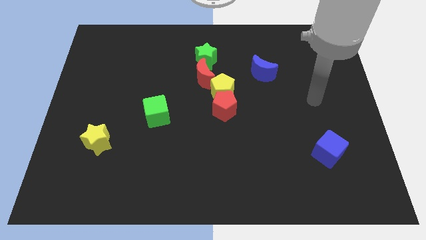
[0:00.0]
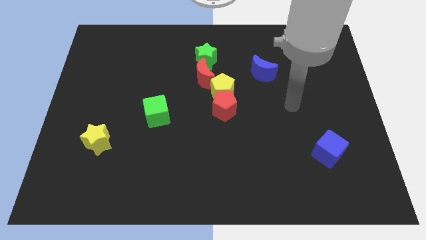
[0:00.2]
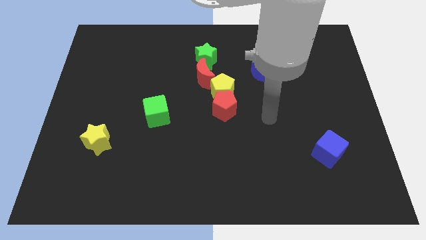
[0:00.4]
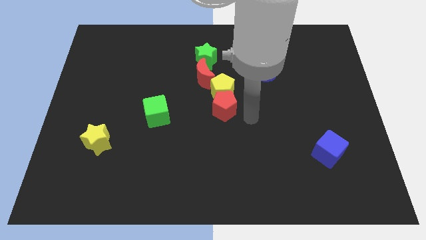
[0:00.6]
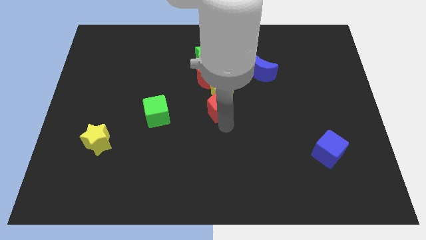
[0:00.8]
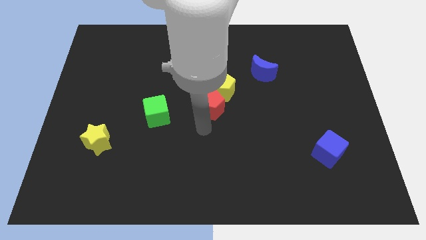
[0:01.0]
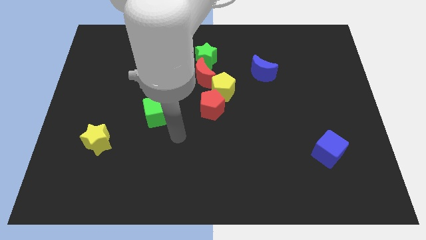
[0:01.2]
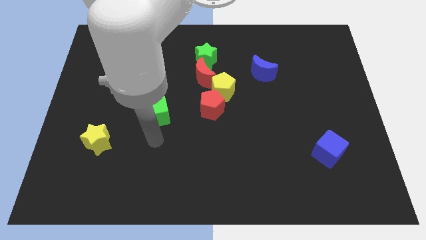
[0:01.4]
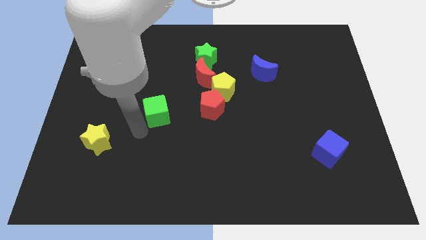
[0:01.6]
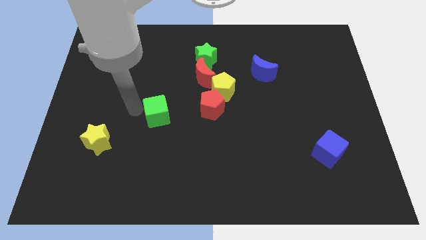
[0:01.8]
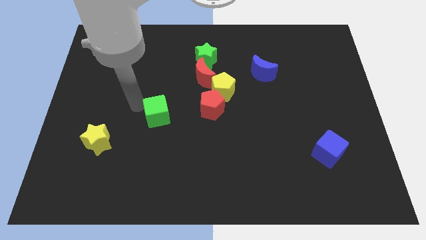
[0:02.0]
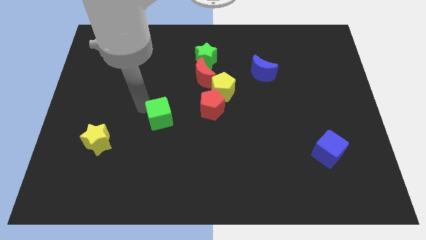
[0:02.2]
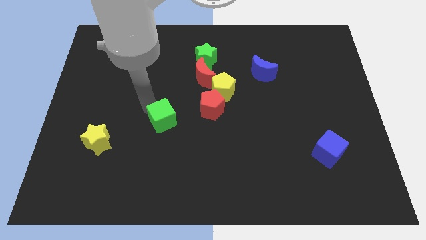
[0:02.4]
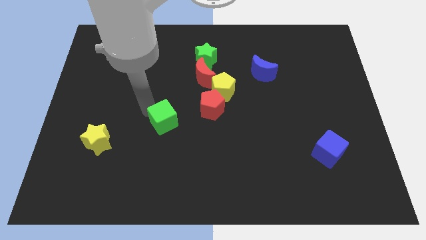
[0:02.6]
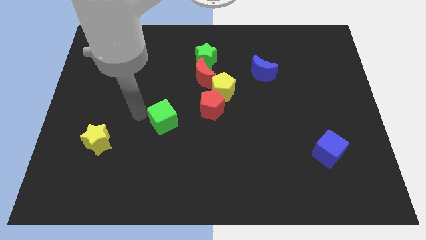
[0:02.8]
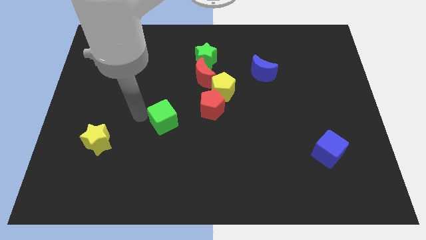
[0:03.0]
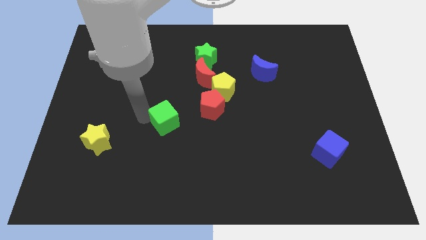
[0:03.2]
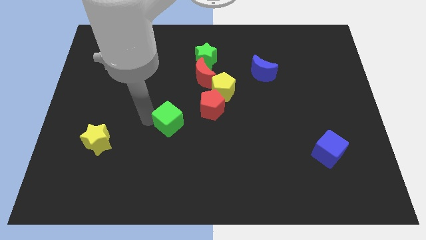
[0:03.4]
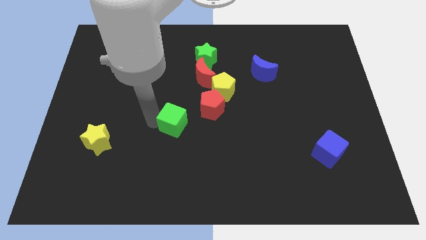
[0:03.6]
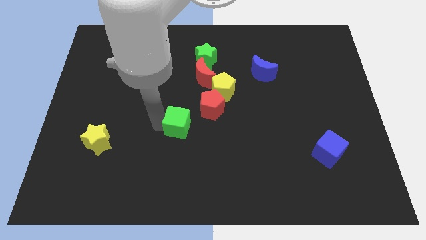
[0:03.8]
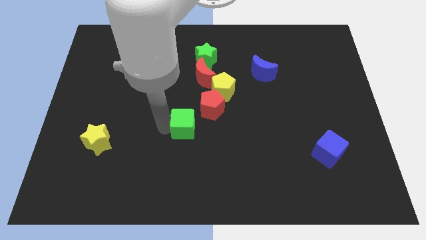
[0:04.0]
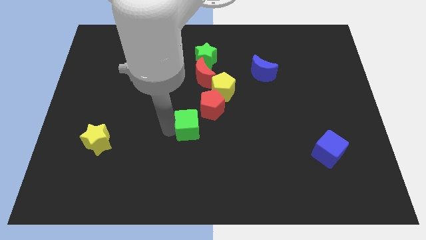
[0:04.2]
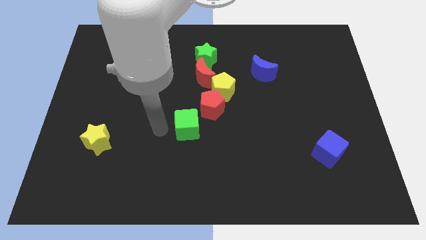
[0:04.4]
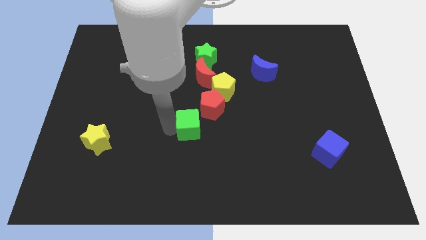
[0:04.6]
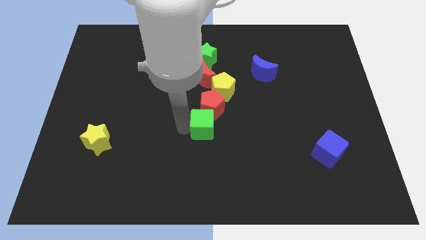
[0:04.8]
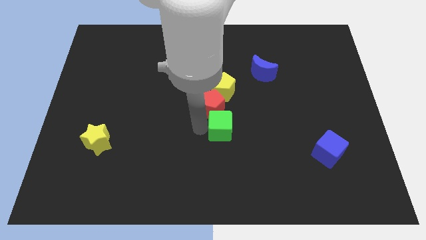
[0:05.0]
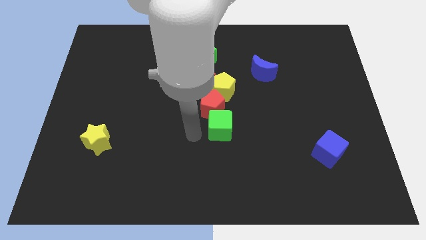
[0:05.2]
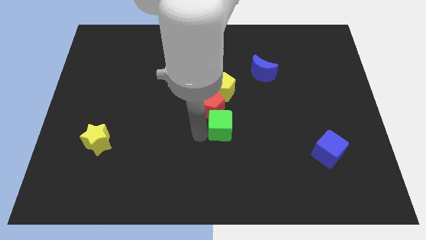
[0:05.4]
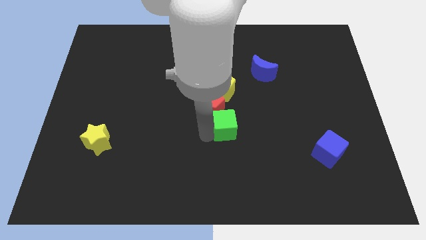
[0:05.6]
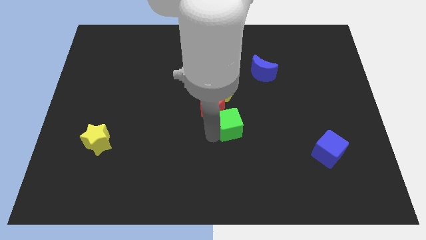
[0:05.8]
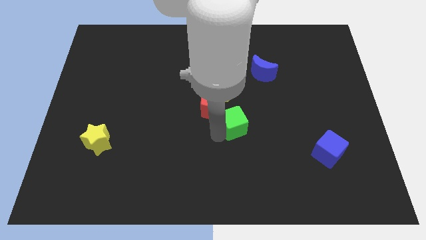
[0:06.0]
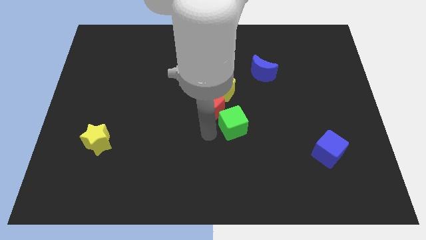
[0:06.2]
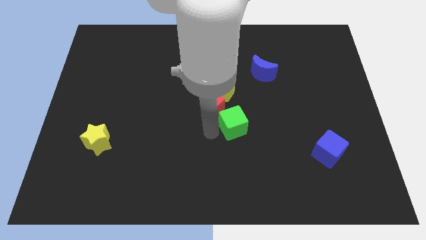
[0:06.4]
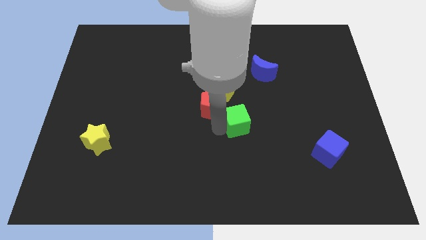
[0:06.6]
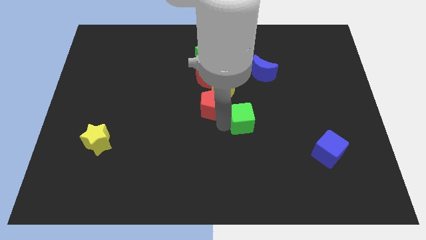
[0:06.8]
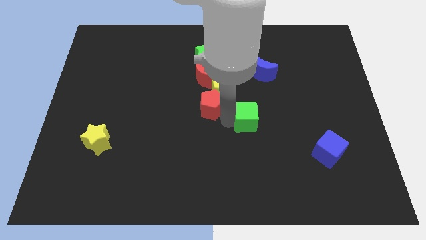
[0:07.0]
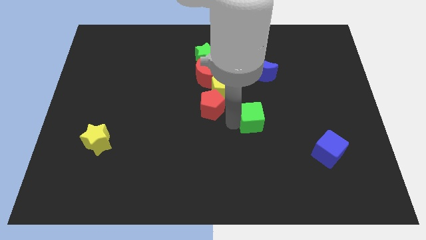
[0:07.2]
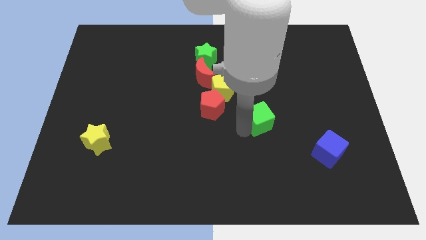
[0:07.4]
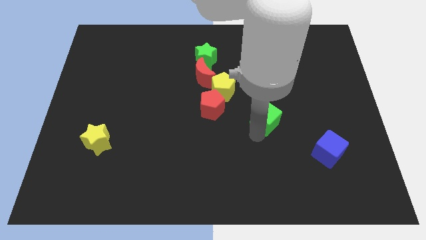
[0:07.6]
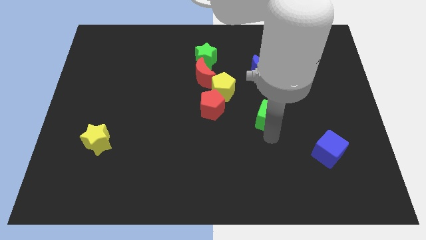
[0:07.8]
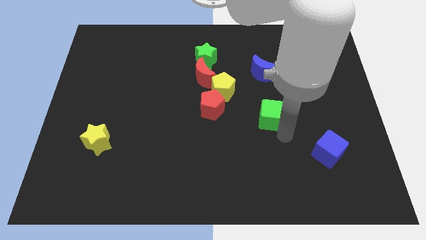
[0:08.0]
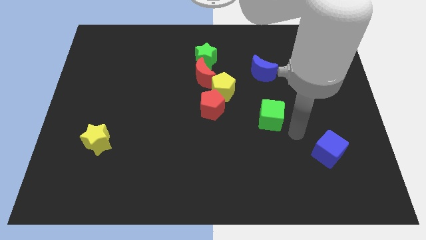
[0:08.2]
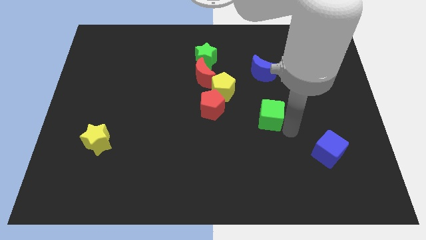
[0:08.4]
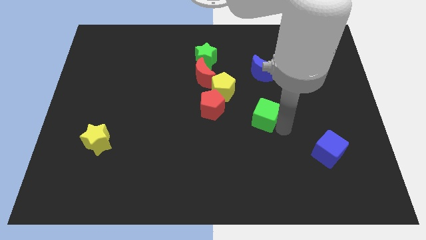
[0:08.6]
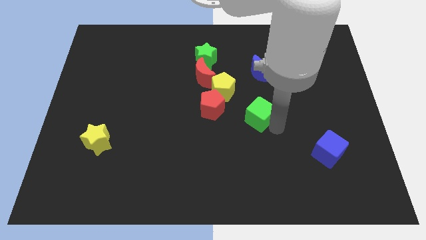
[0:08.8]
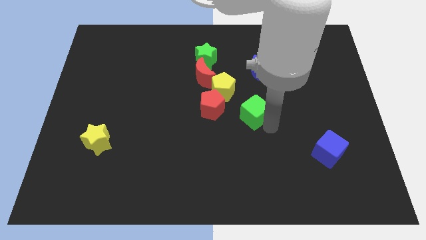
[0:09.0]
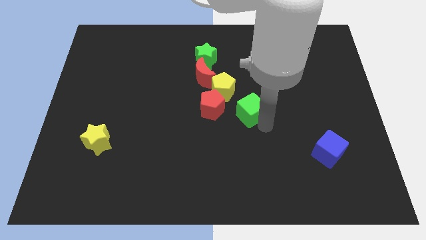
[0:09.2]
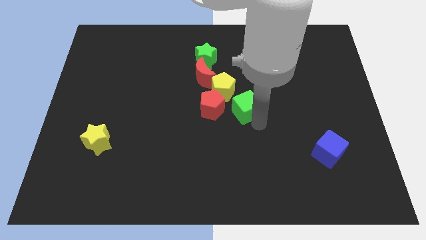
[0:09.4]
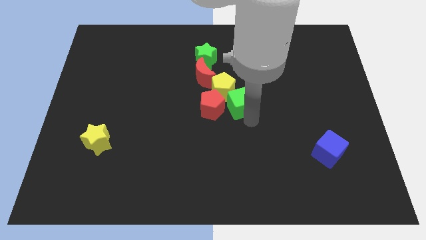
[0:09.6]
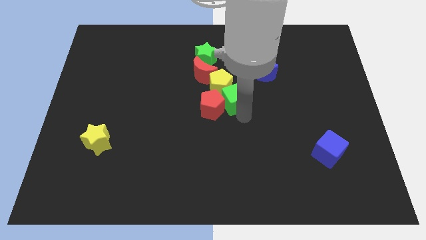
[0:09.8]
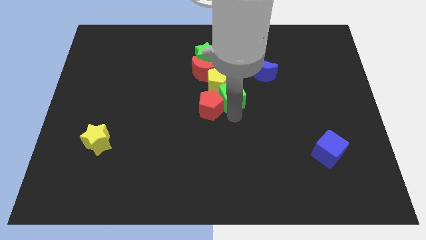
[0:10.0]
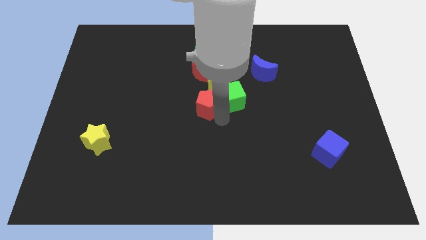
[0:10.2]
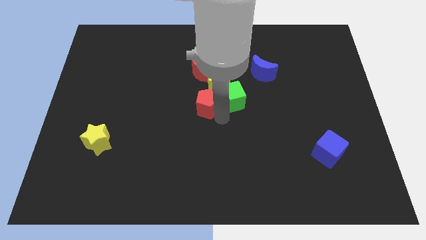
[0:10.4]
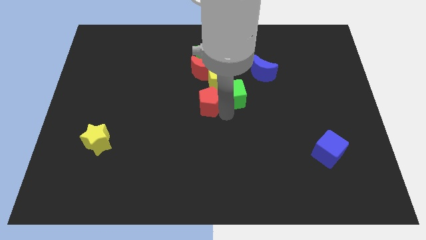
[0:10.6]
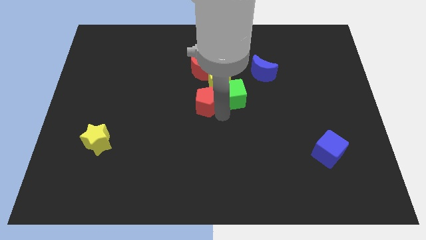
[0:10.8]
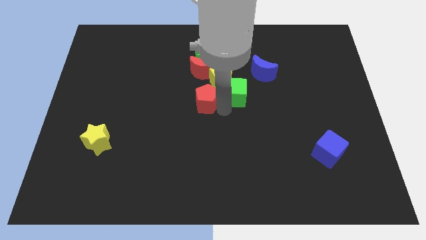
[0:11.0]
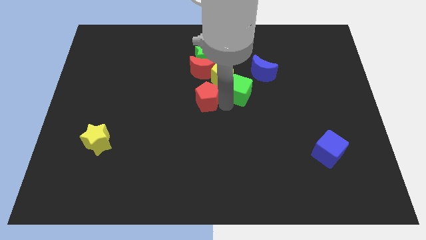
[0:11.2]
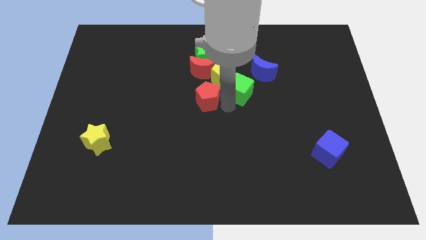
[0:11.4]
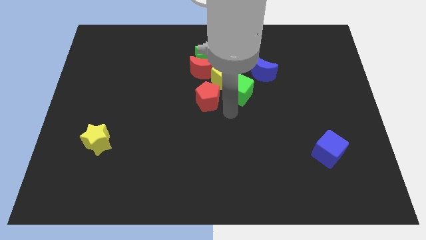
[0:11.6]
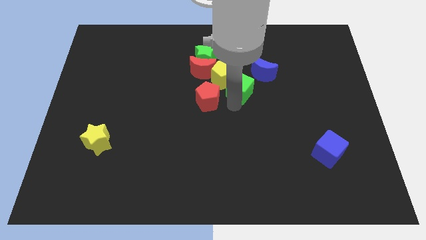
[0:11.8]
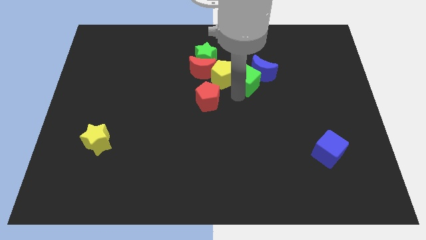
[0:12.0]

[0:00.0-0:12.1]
put the green cube towards the blue moon

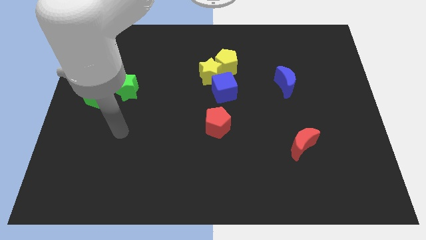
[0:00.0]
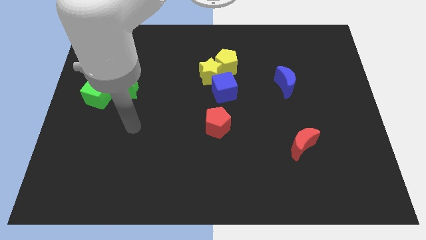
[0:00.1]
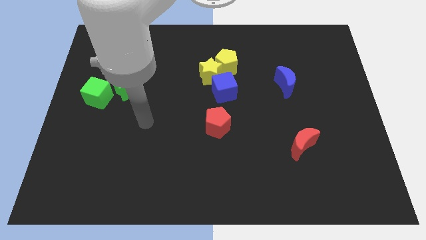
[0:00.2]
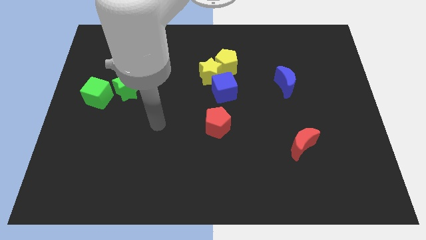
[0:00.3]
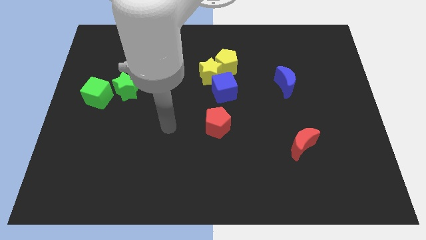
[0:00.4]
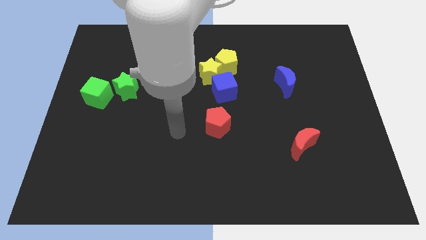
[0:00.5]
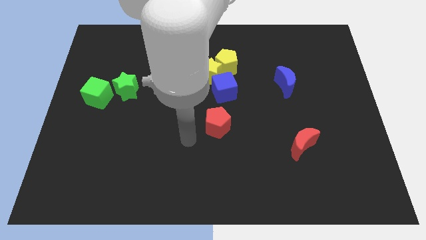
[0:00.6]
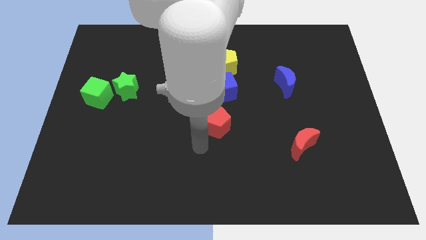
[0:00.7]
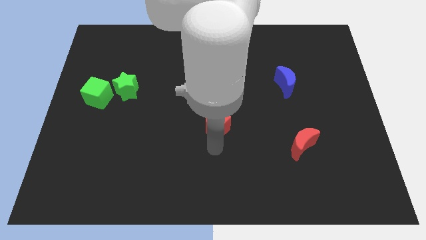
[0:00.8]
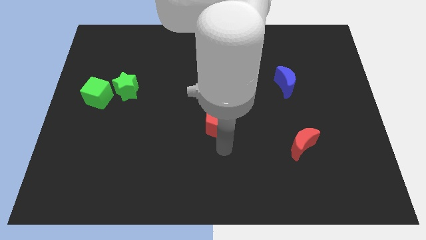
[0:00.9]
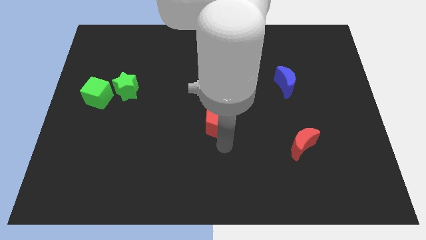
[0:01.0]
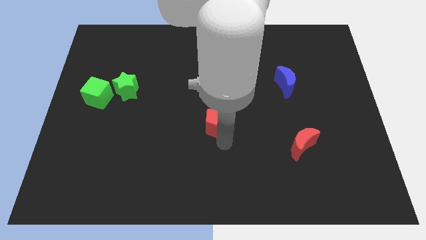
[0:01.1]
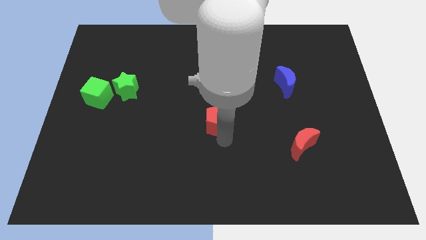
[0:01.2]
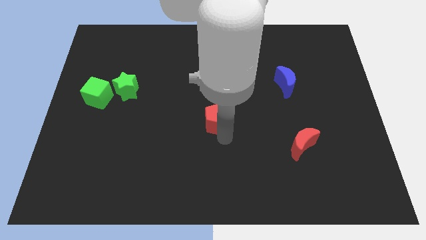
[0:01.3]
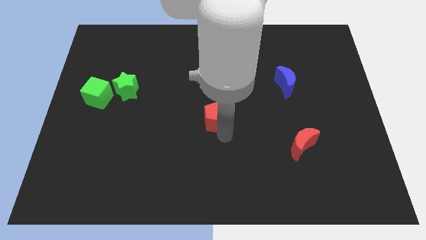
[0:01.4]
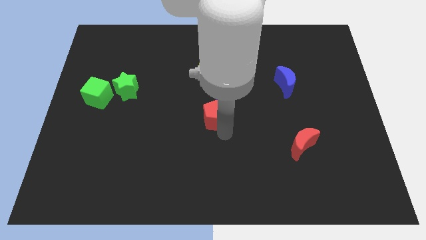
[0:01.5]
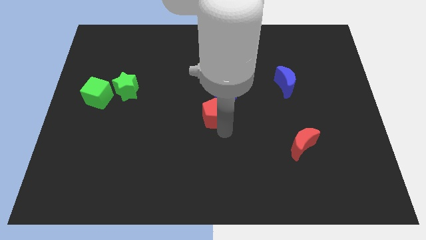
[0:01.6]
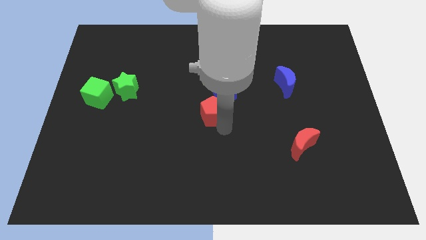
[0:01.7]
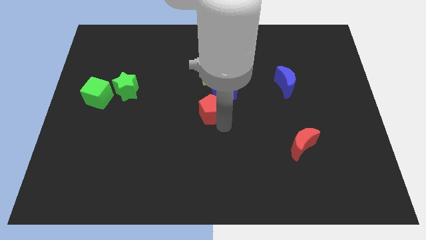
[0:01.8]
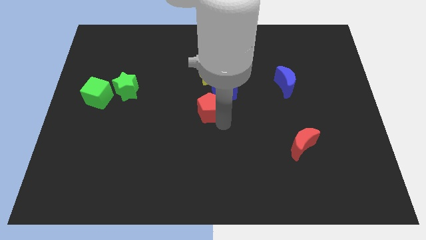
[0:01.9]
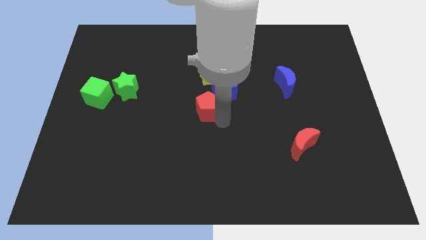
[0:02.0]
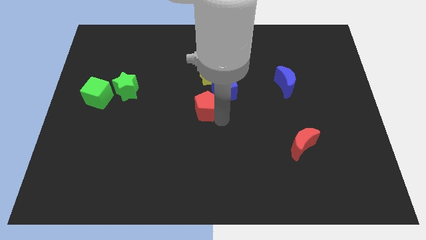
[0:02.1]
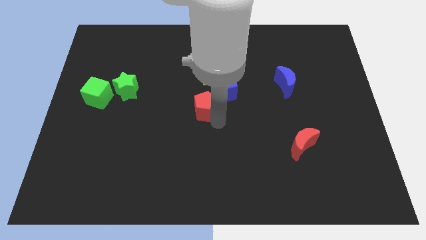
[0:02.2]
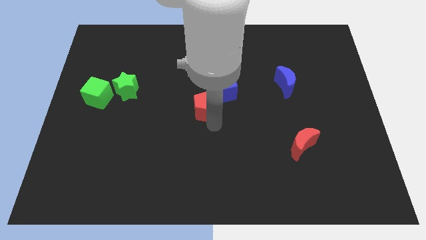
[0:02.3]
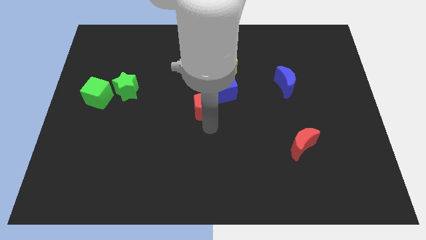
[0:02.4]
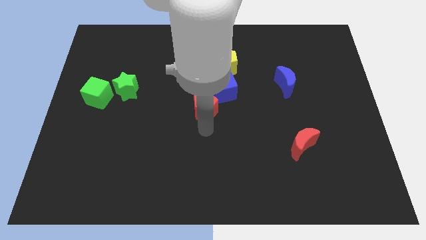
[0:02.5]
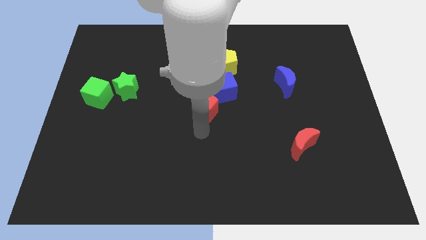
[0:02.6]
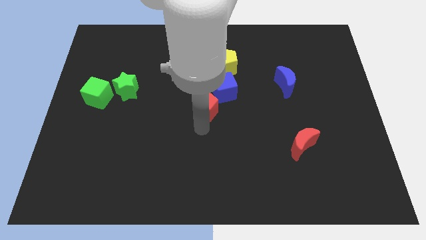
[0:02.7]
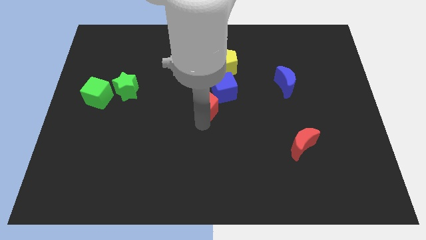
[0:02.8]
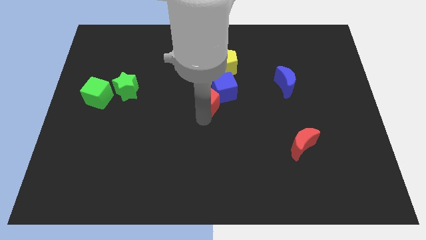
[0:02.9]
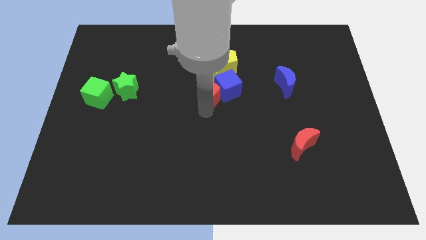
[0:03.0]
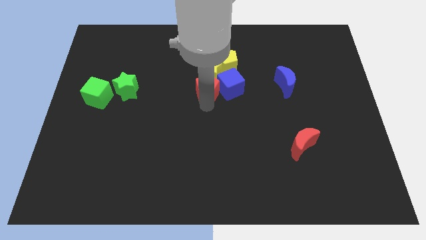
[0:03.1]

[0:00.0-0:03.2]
slide the red pentagon close to the yellow star
